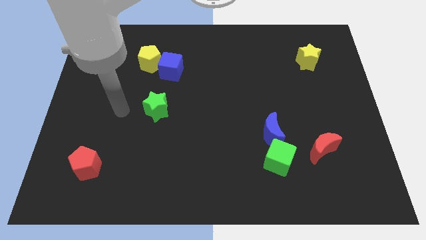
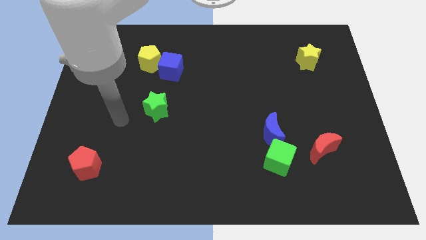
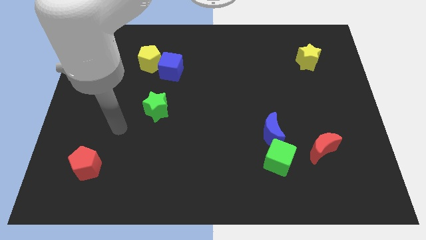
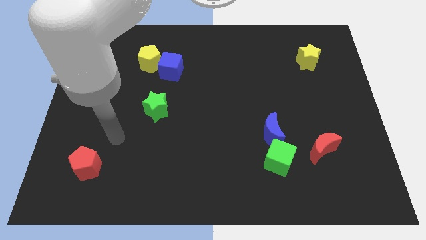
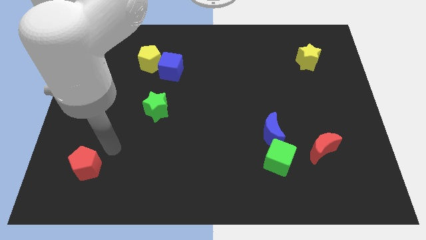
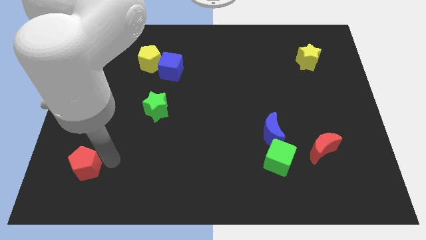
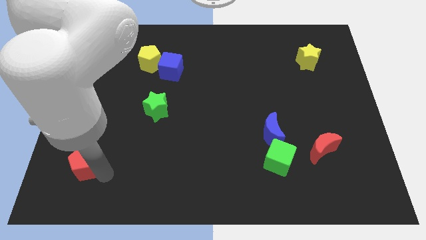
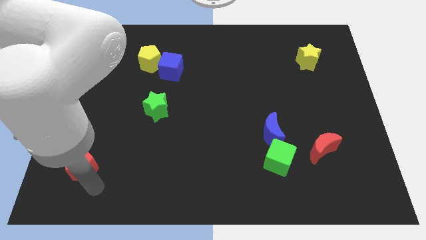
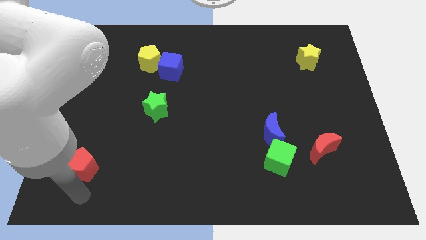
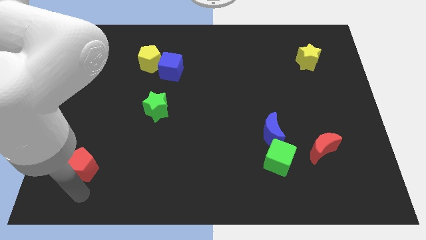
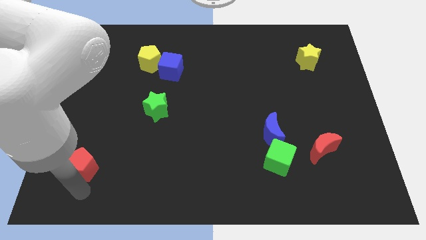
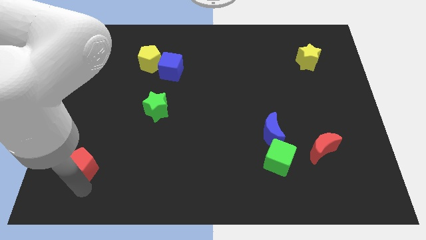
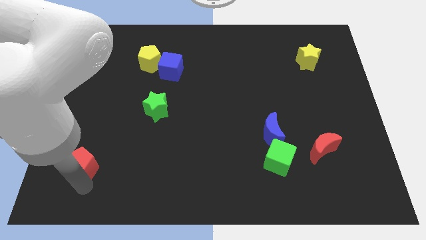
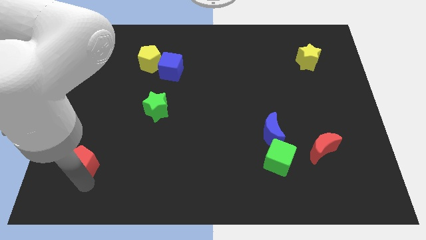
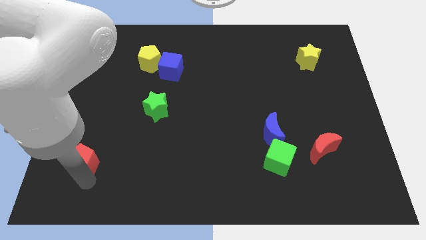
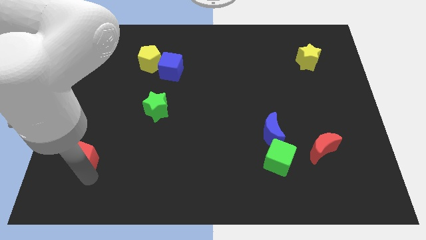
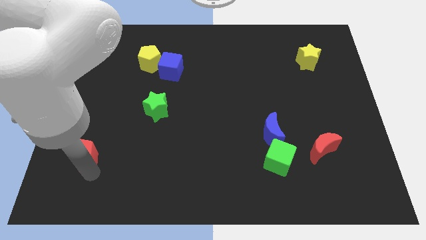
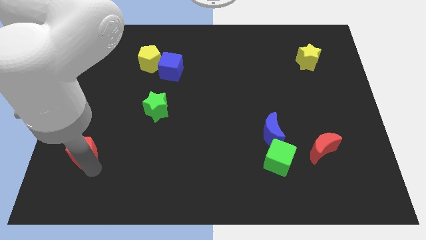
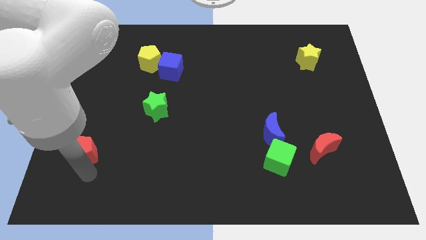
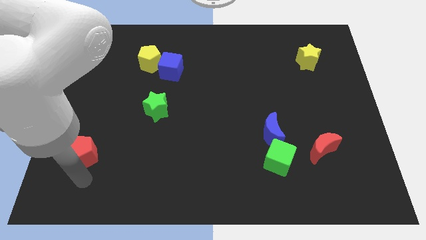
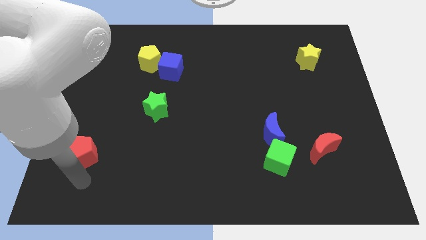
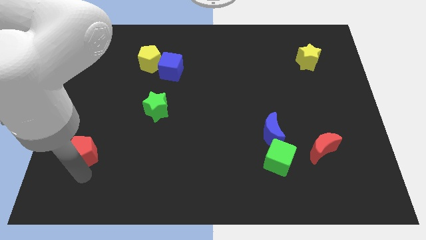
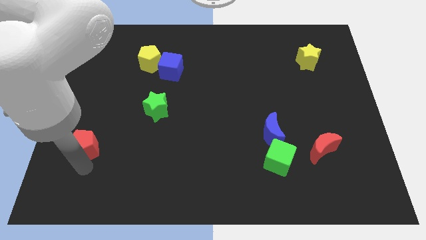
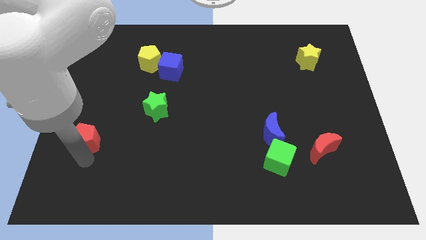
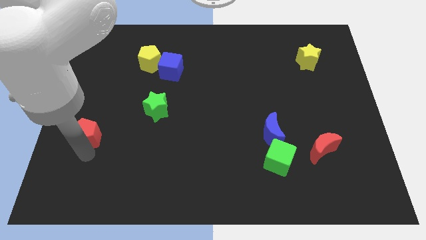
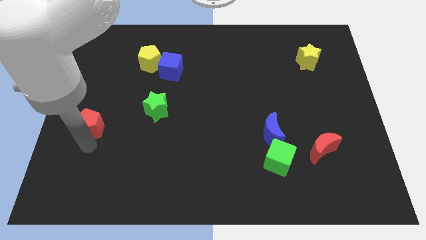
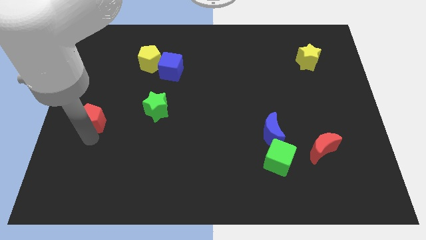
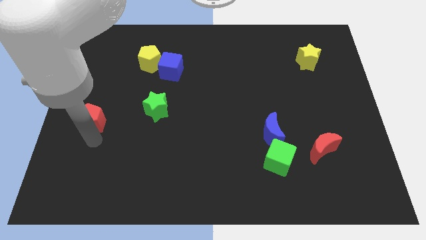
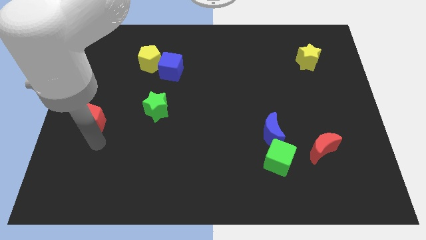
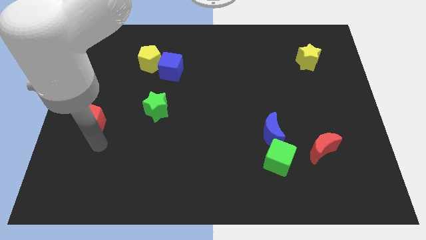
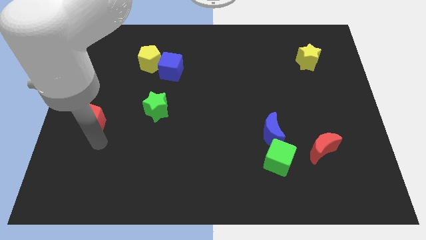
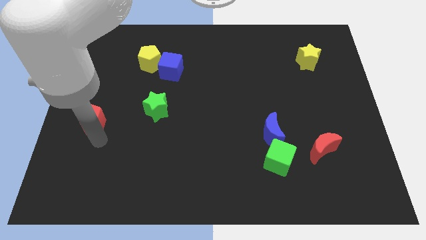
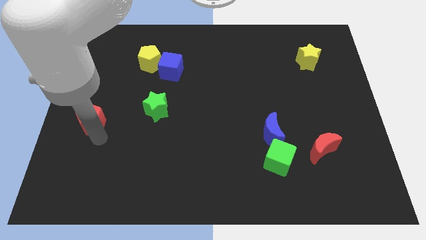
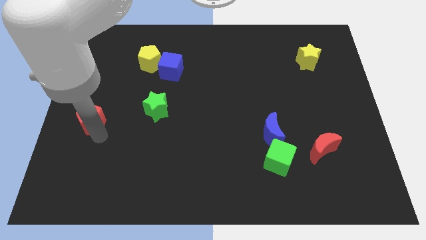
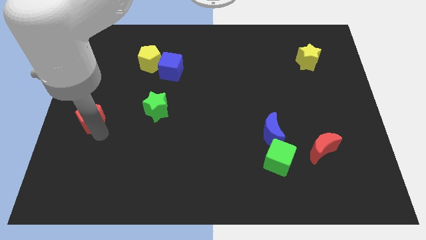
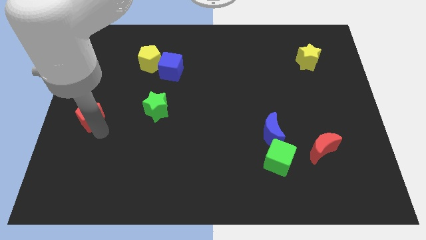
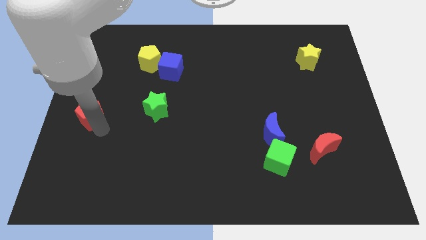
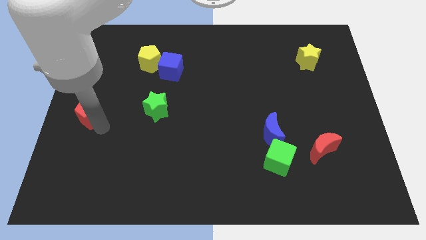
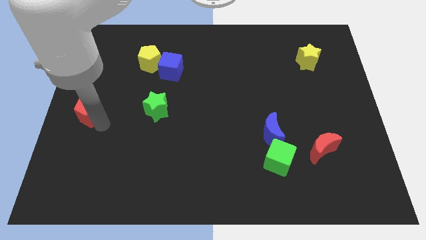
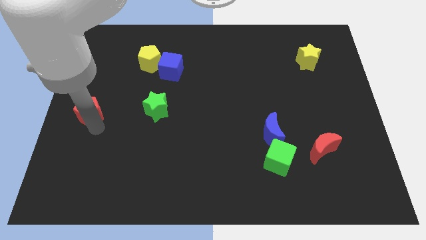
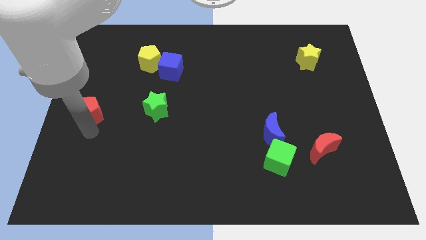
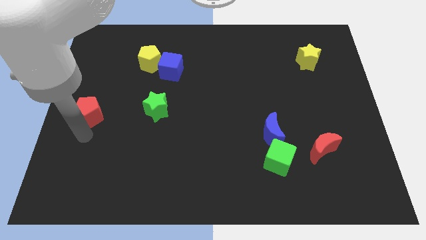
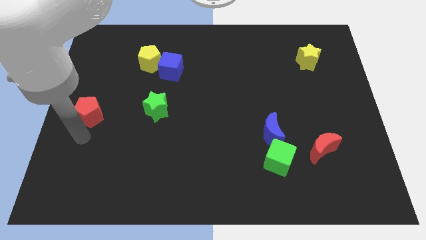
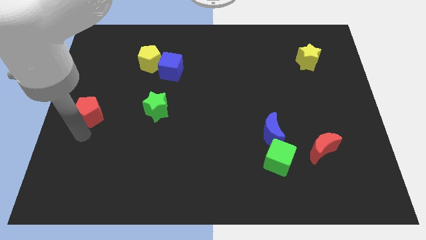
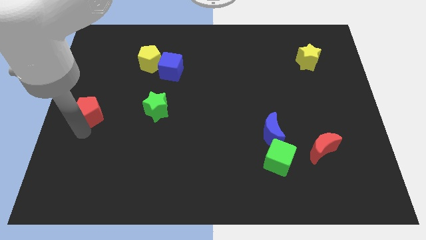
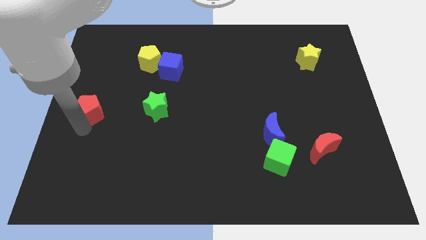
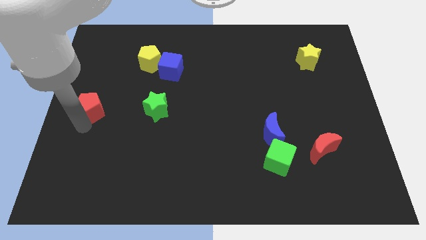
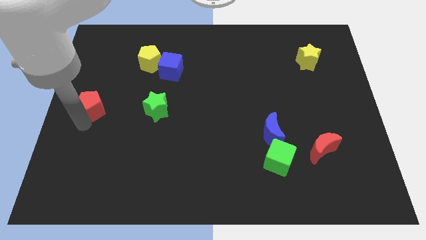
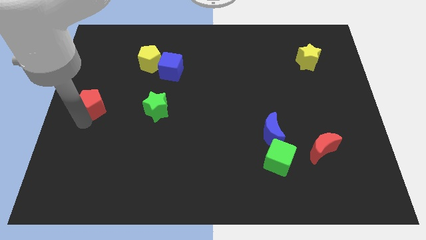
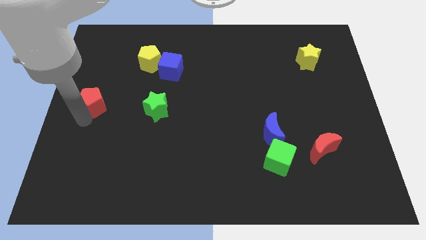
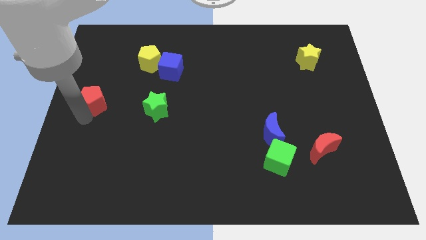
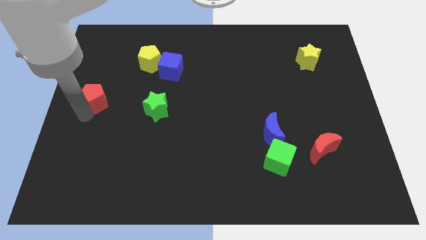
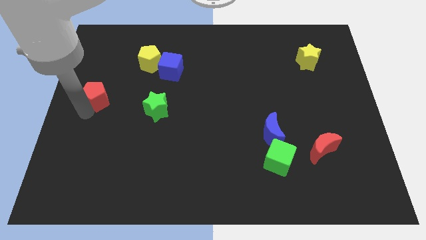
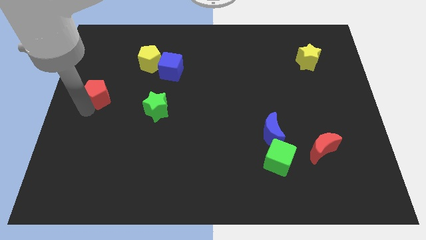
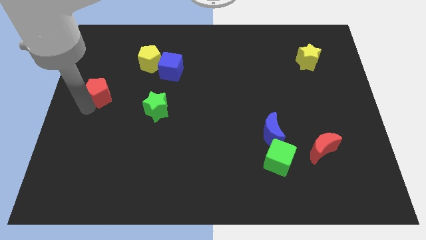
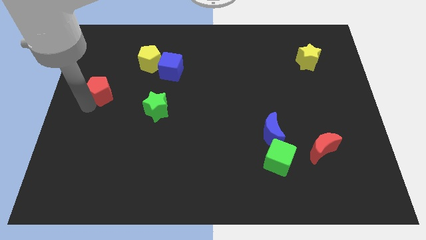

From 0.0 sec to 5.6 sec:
move the red pentagon up

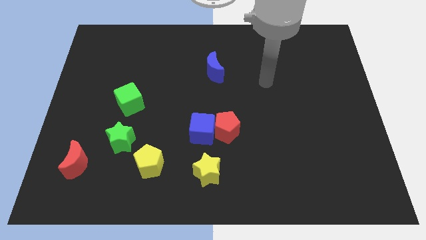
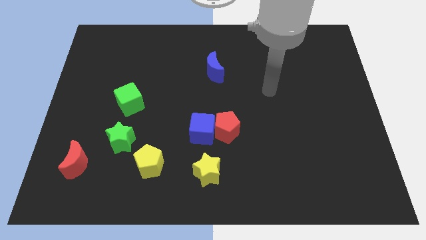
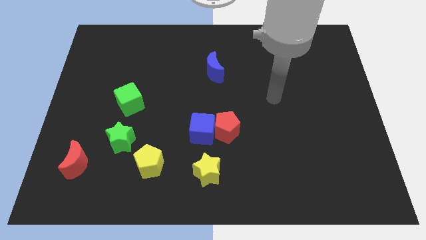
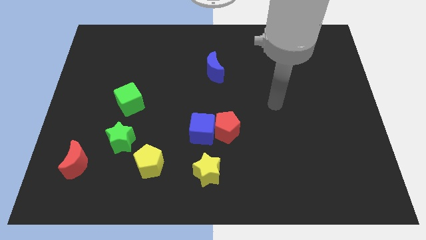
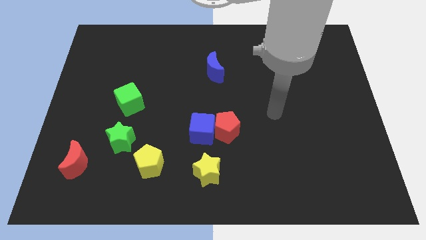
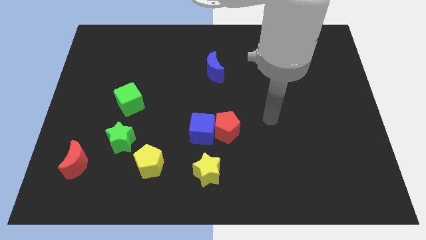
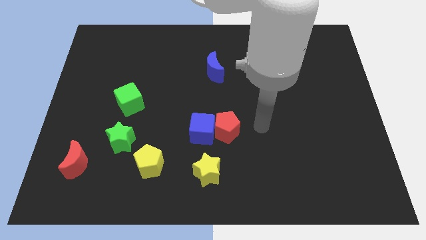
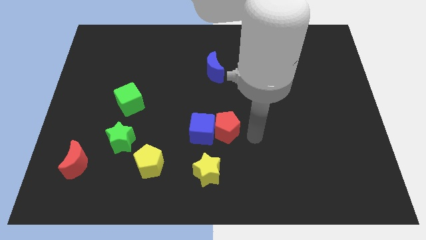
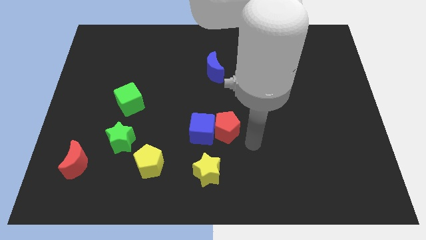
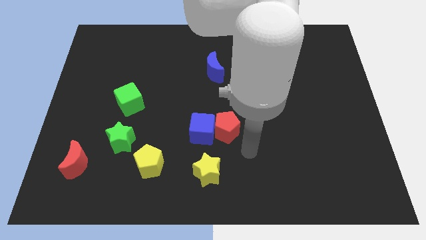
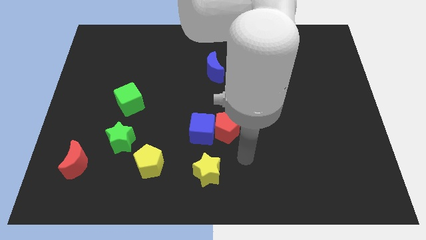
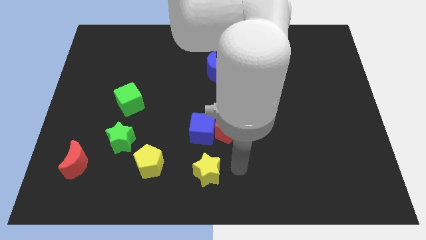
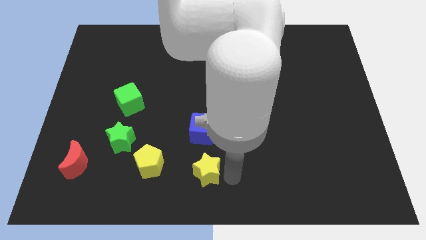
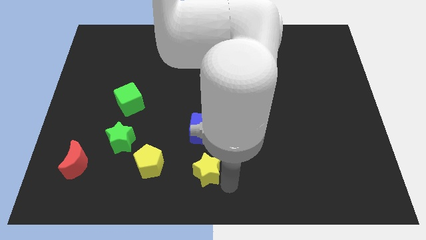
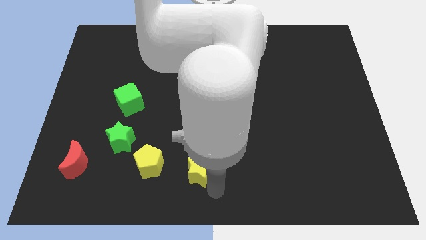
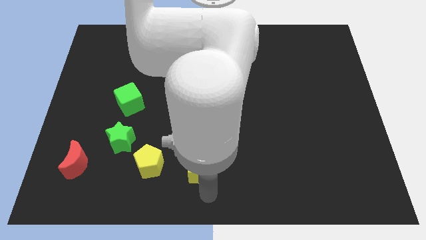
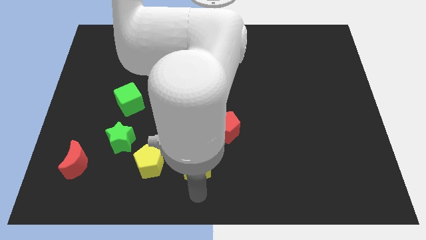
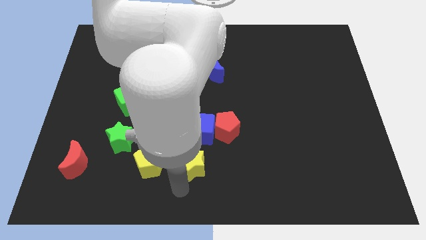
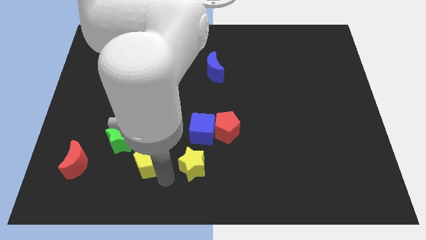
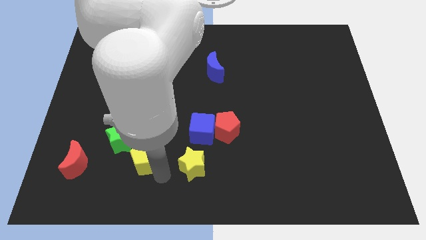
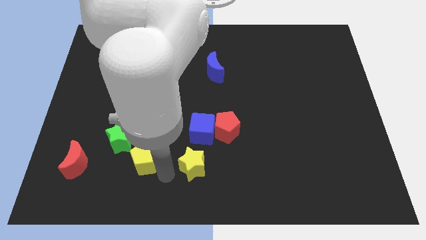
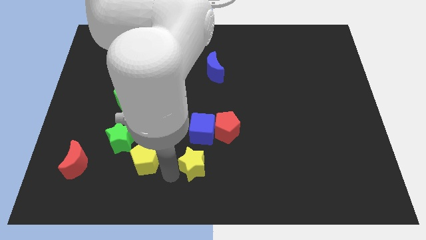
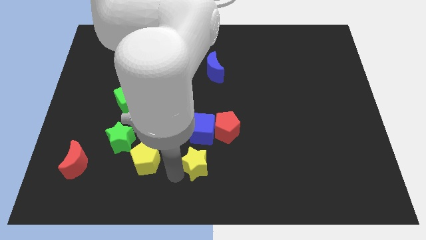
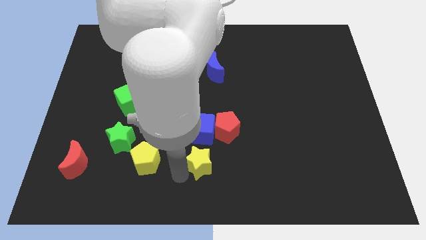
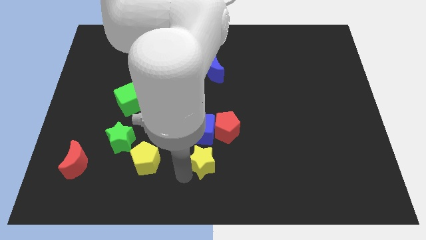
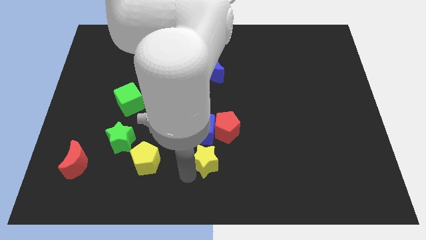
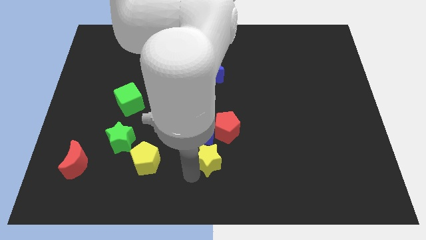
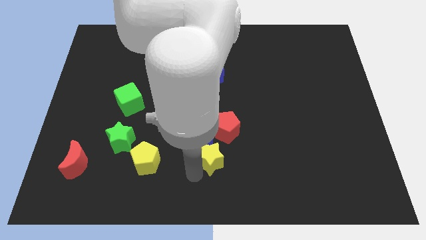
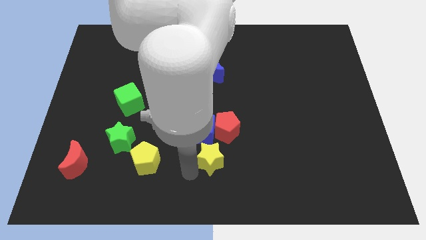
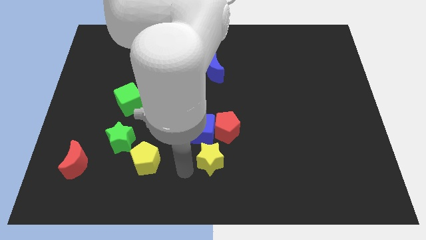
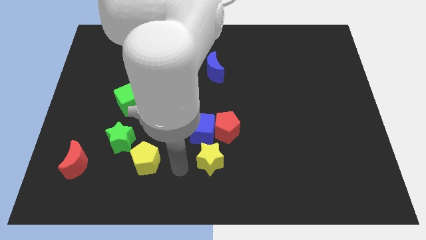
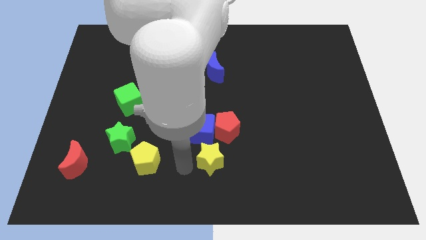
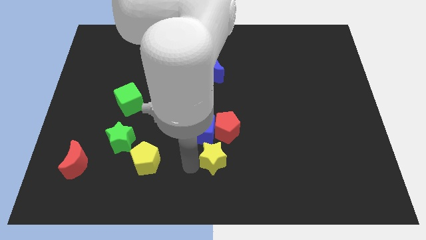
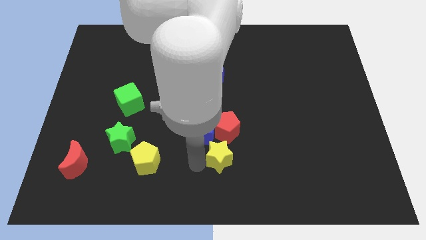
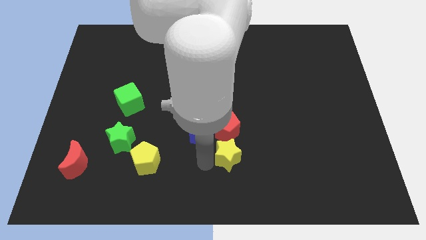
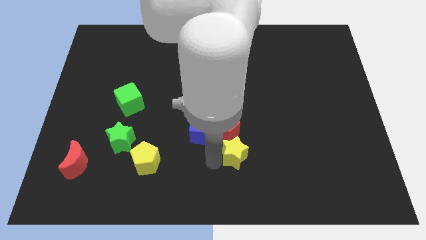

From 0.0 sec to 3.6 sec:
slightly push the yellow star up and right
